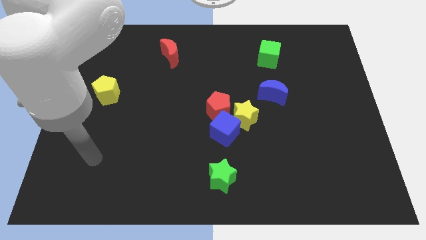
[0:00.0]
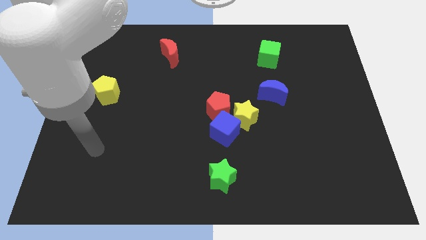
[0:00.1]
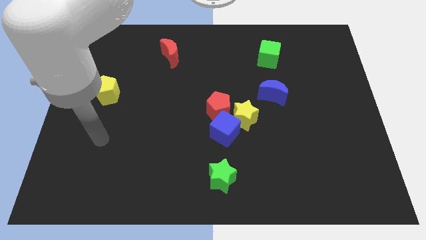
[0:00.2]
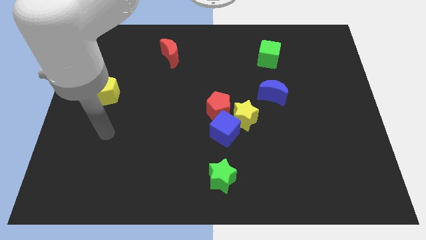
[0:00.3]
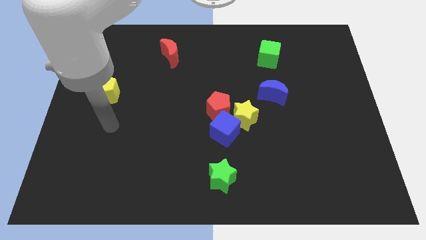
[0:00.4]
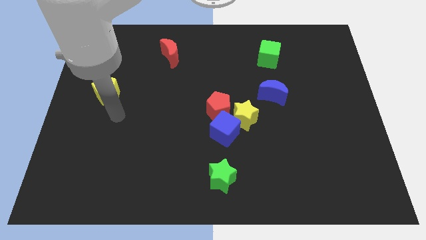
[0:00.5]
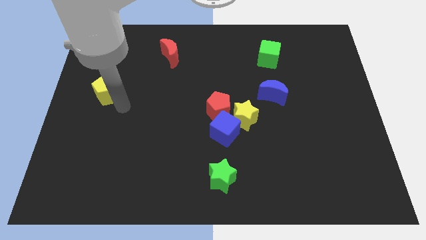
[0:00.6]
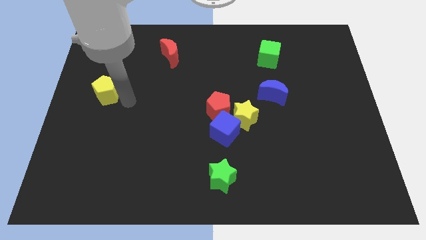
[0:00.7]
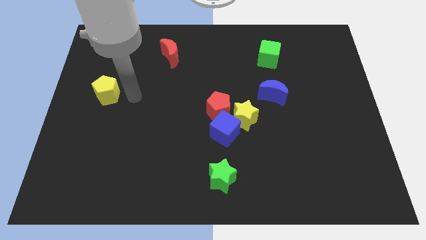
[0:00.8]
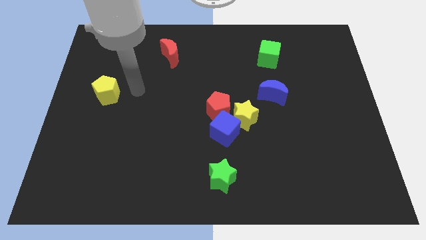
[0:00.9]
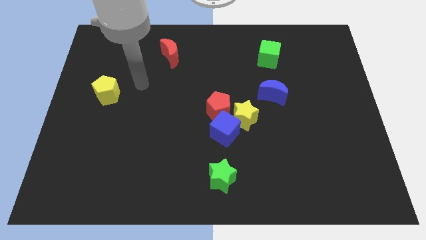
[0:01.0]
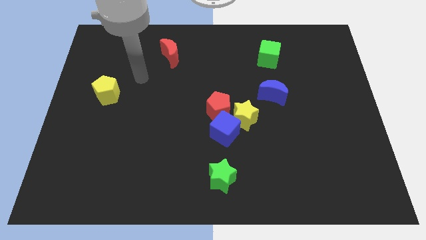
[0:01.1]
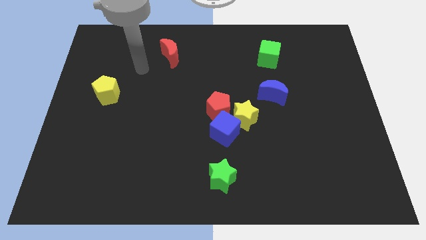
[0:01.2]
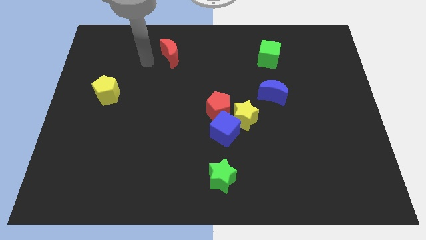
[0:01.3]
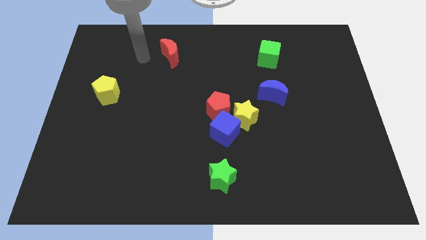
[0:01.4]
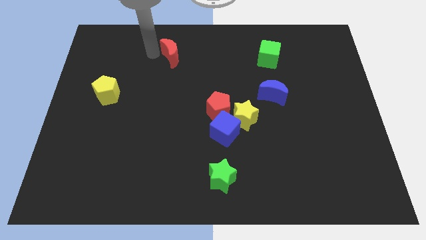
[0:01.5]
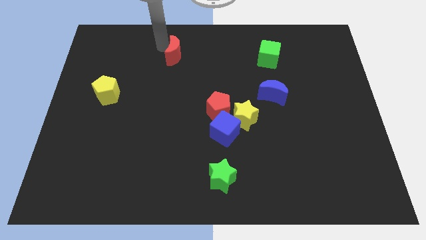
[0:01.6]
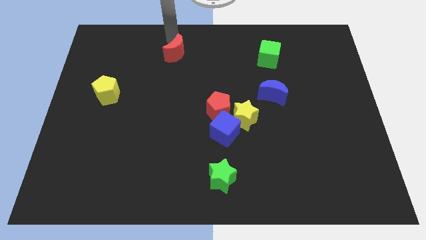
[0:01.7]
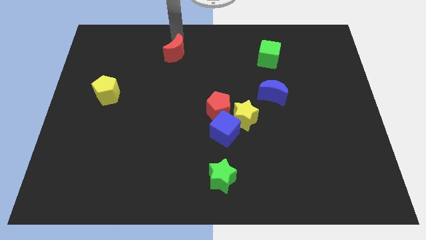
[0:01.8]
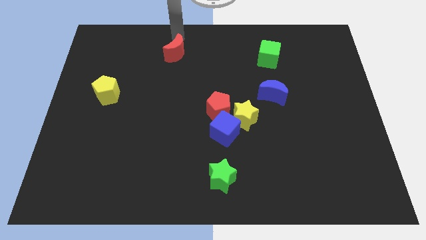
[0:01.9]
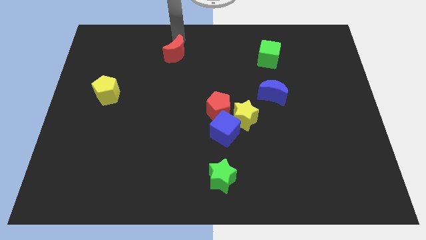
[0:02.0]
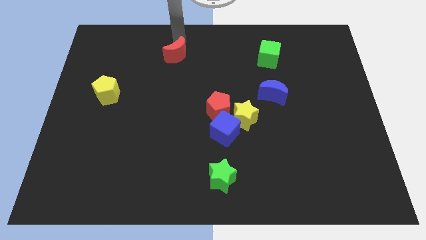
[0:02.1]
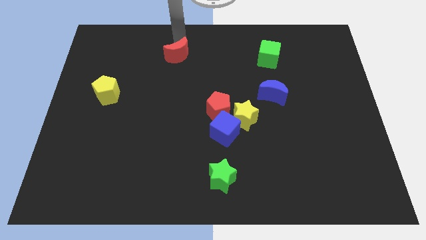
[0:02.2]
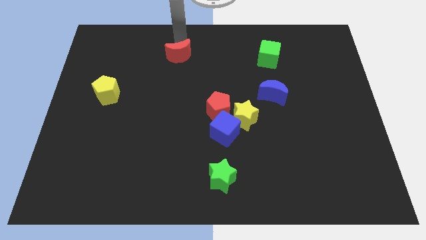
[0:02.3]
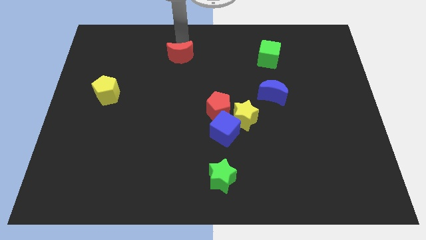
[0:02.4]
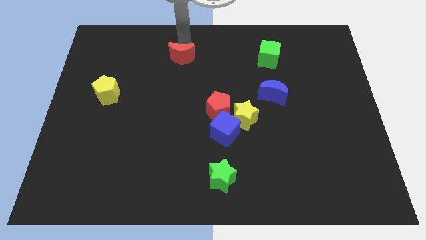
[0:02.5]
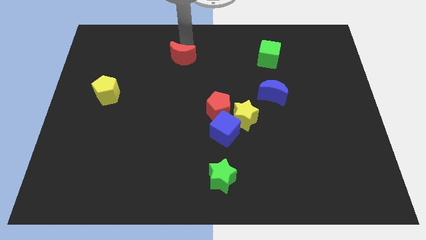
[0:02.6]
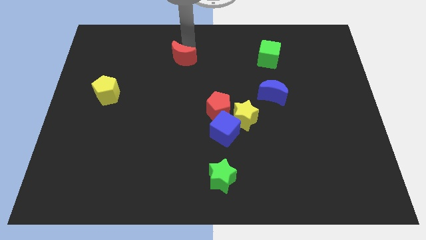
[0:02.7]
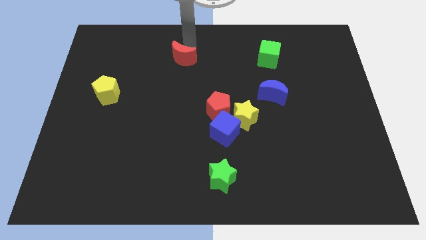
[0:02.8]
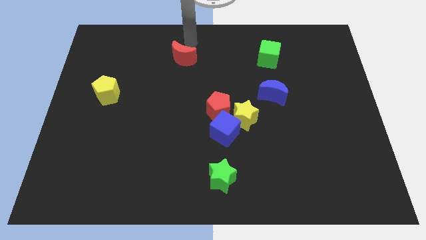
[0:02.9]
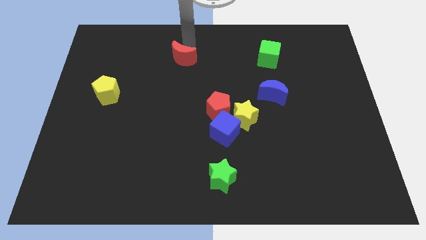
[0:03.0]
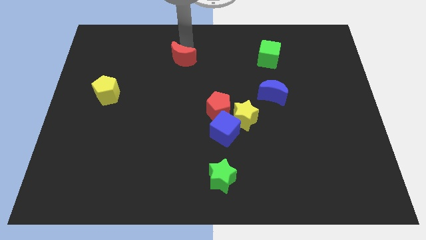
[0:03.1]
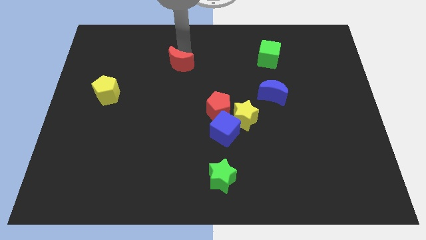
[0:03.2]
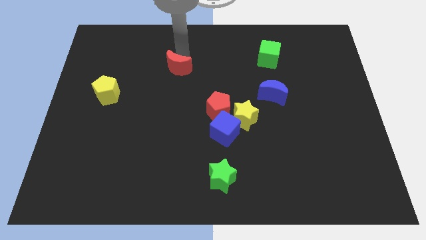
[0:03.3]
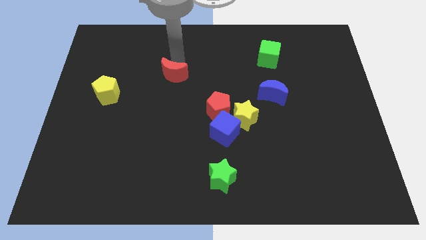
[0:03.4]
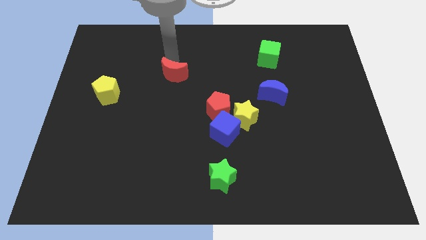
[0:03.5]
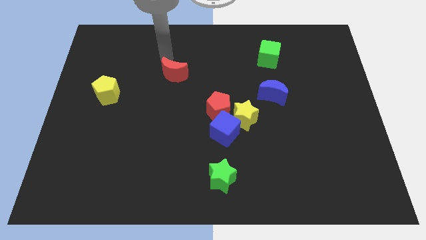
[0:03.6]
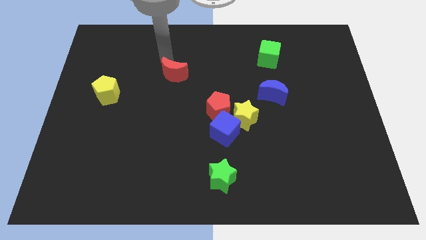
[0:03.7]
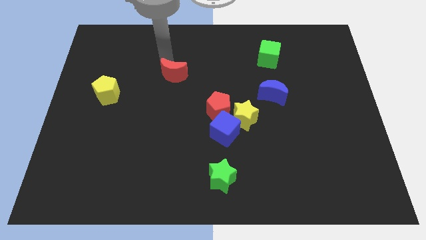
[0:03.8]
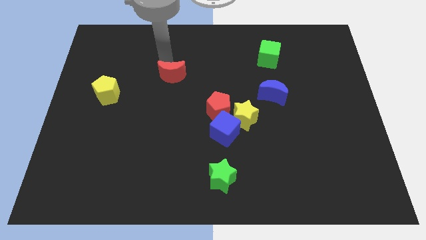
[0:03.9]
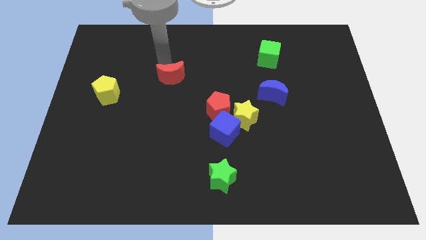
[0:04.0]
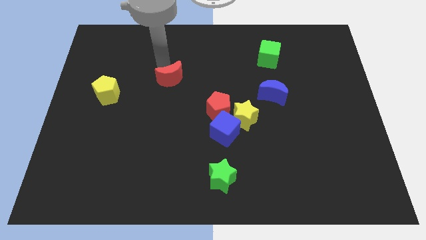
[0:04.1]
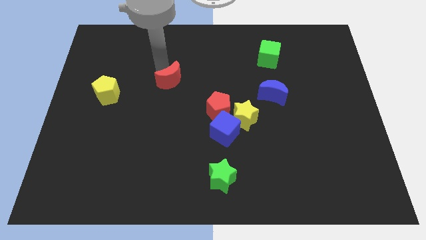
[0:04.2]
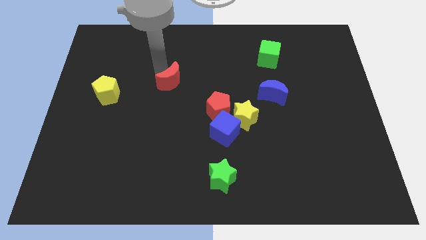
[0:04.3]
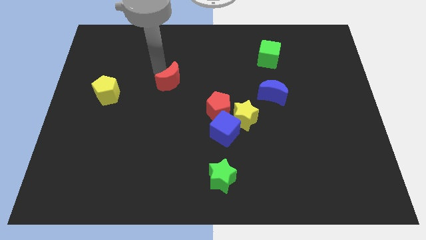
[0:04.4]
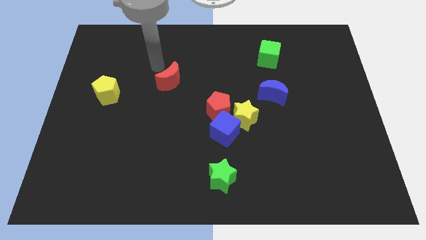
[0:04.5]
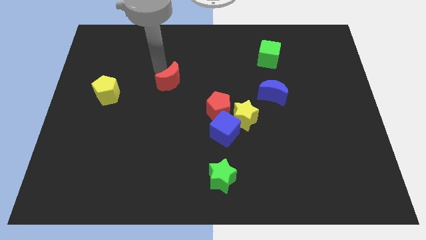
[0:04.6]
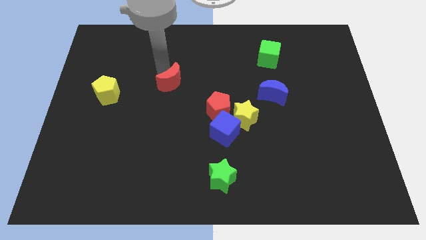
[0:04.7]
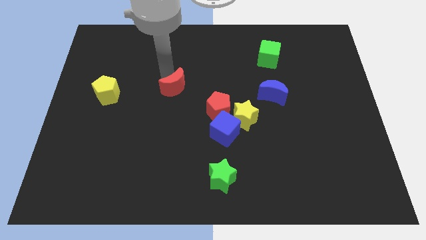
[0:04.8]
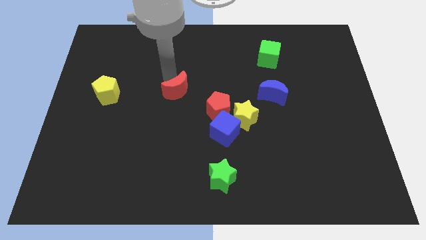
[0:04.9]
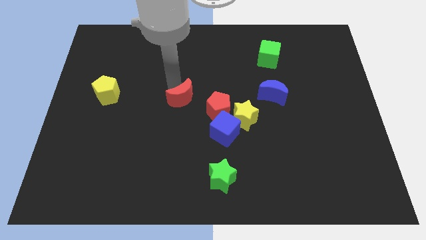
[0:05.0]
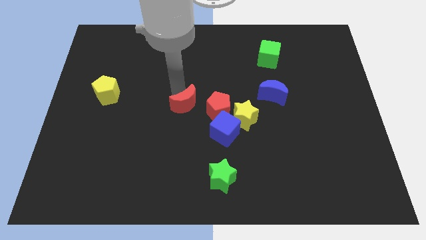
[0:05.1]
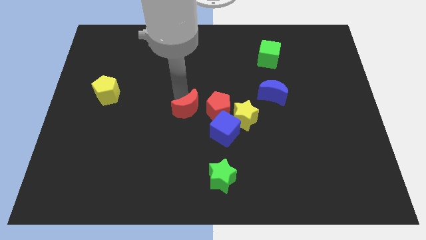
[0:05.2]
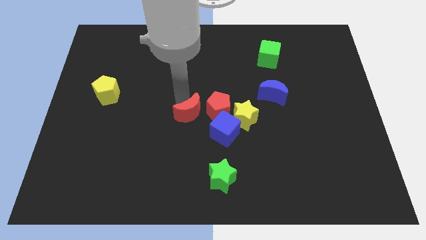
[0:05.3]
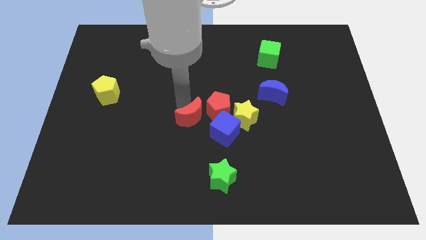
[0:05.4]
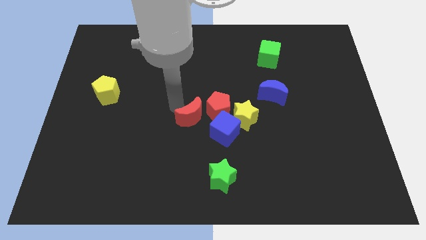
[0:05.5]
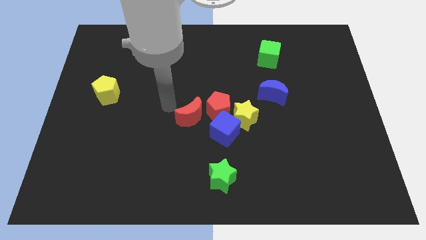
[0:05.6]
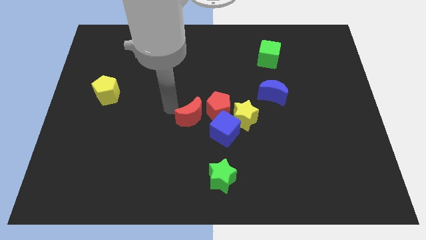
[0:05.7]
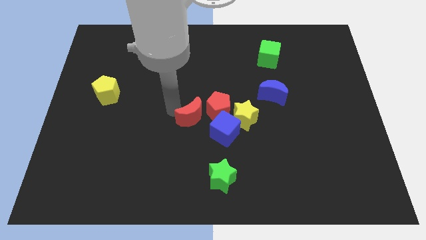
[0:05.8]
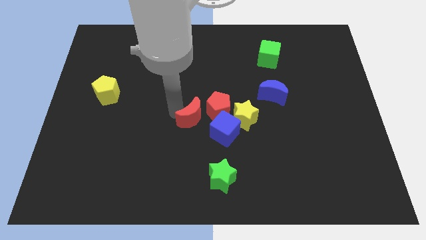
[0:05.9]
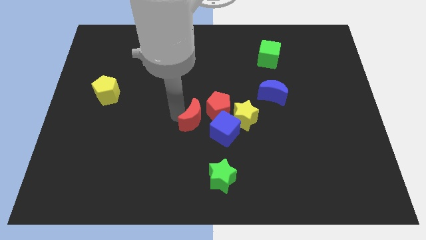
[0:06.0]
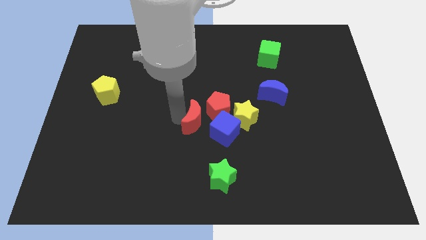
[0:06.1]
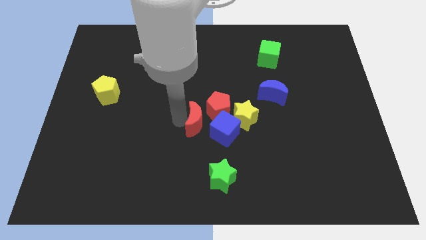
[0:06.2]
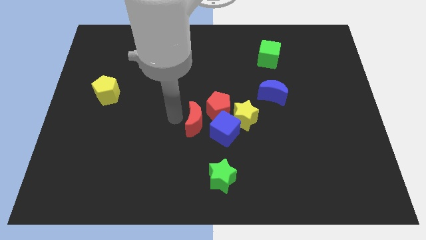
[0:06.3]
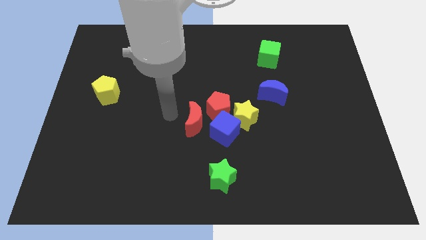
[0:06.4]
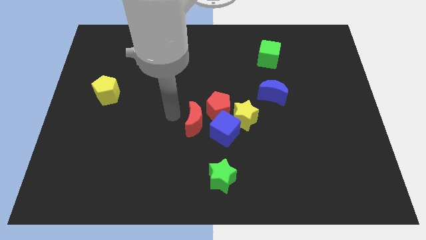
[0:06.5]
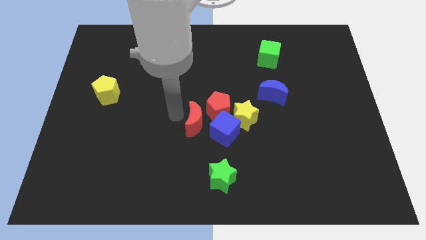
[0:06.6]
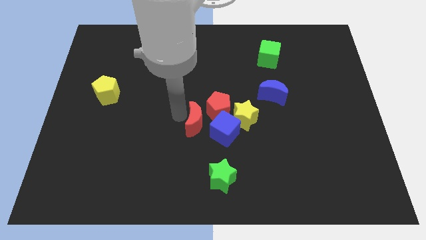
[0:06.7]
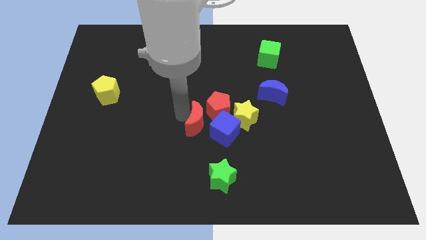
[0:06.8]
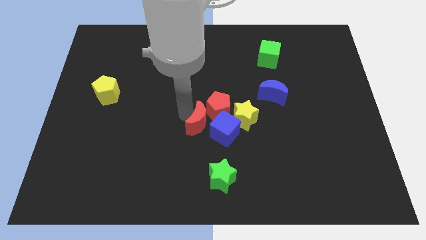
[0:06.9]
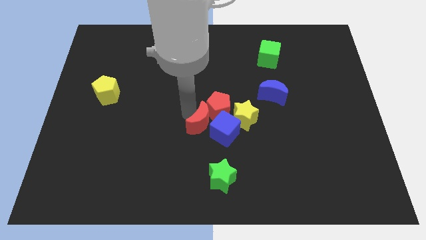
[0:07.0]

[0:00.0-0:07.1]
slide the red moon next to the blue cube

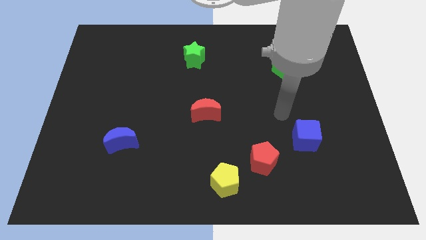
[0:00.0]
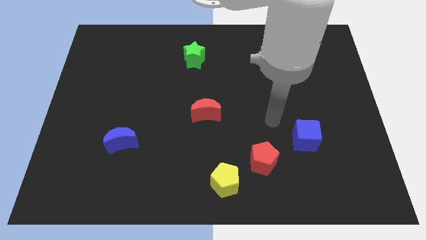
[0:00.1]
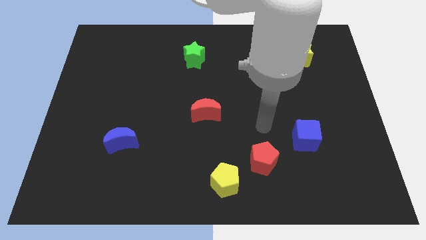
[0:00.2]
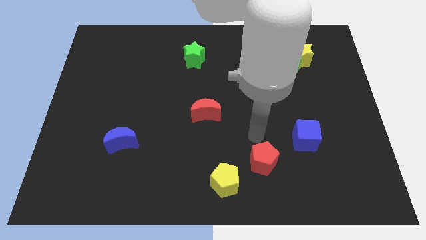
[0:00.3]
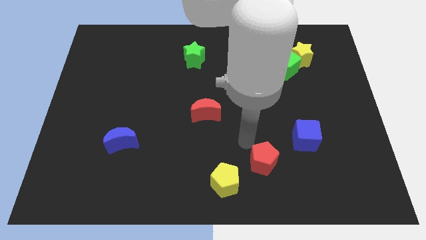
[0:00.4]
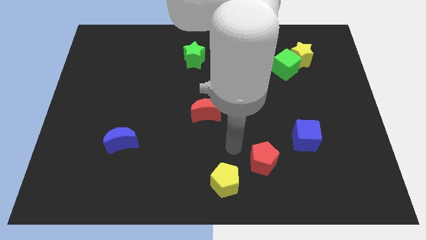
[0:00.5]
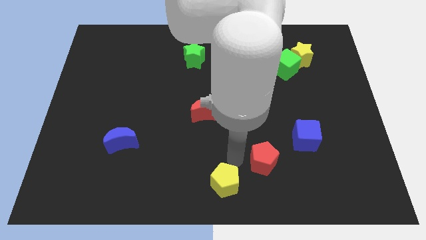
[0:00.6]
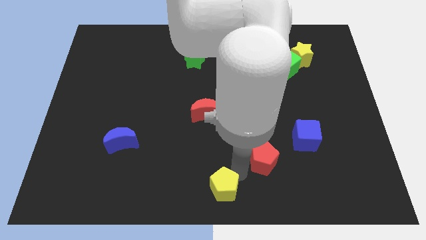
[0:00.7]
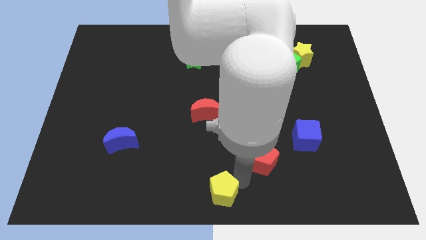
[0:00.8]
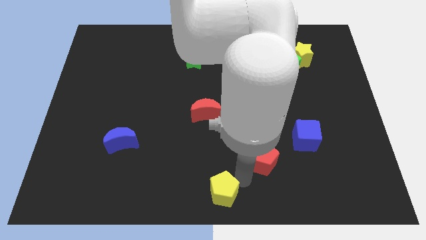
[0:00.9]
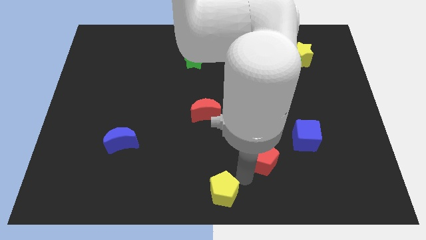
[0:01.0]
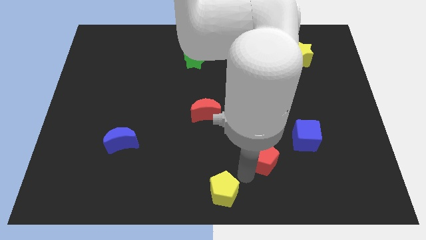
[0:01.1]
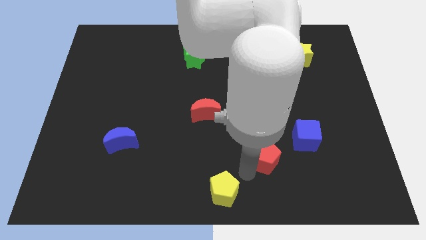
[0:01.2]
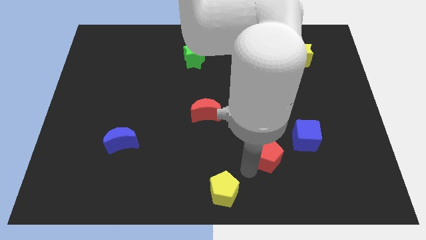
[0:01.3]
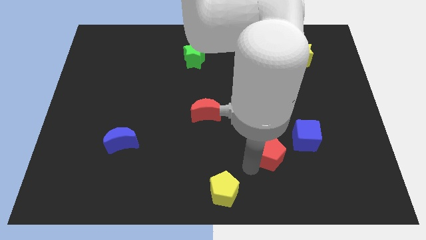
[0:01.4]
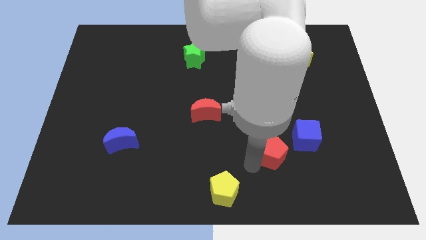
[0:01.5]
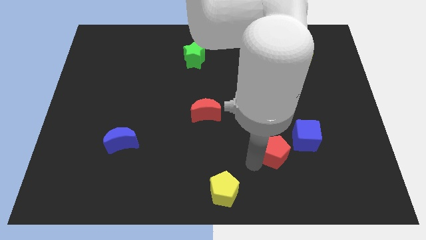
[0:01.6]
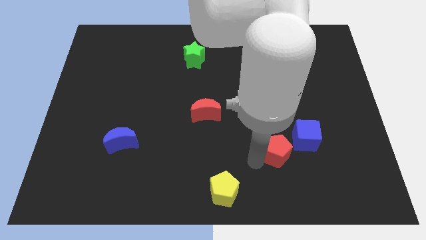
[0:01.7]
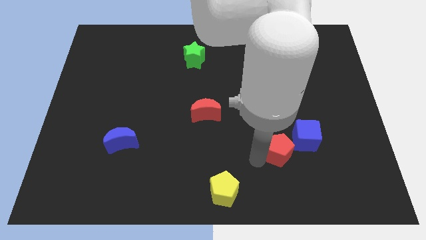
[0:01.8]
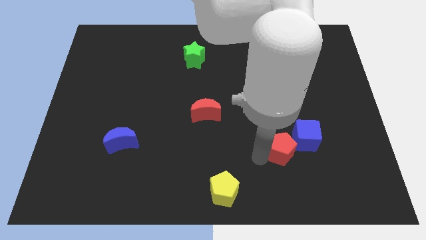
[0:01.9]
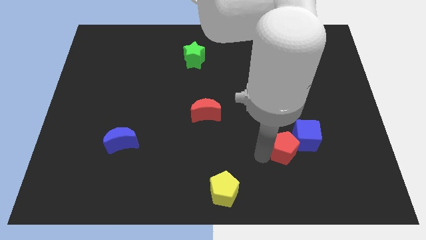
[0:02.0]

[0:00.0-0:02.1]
push the red pentagon next to the blue cube
